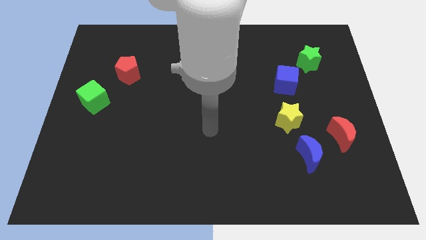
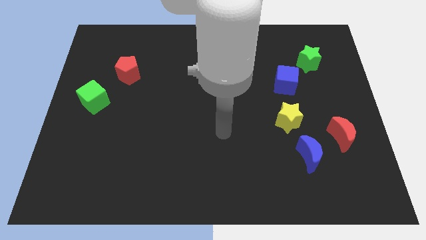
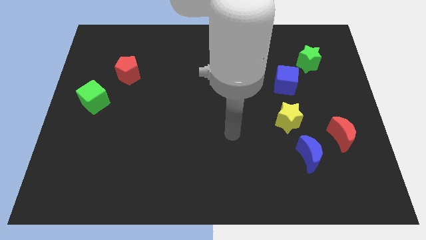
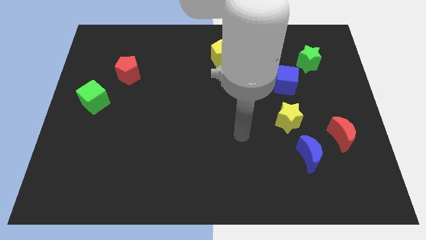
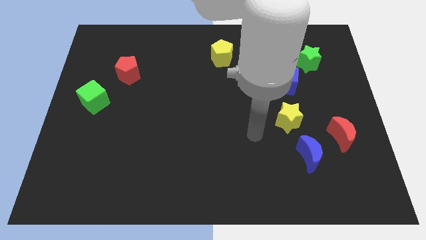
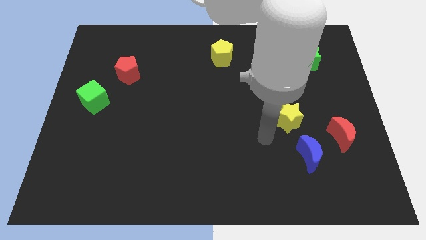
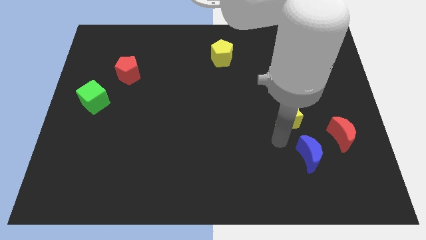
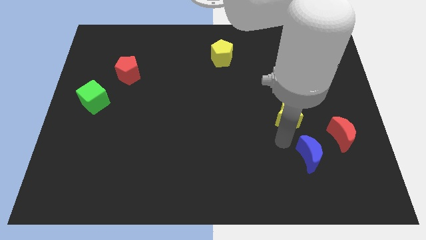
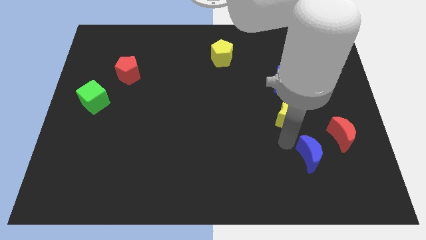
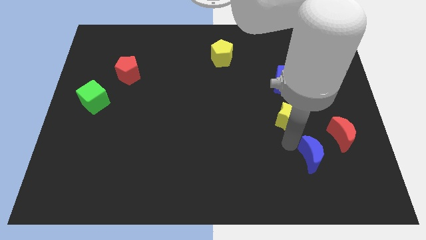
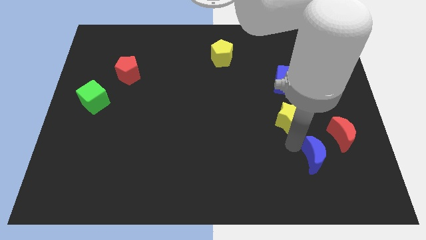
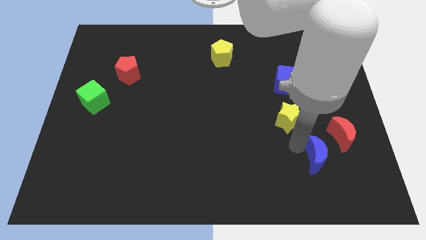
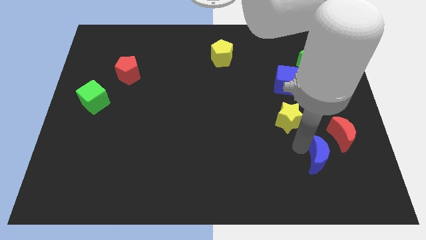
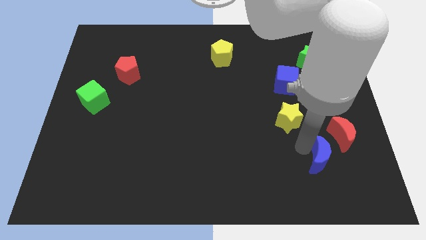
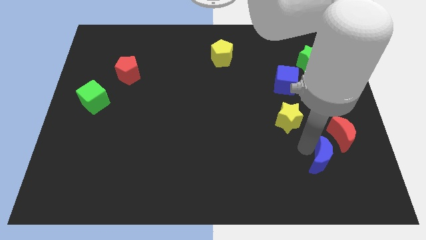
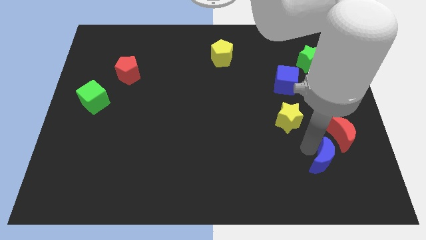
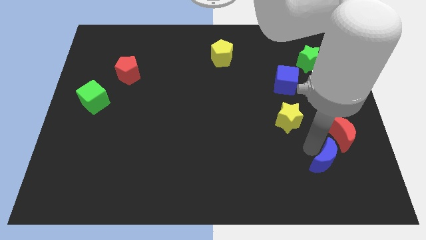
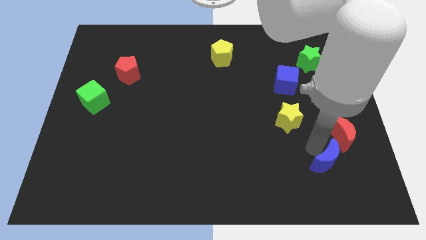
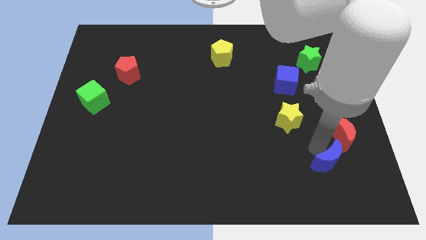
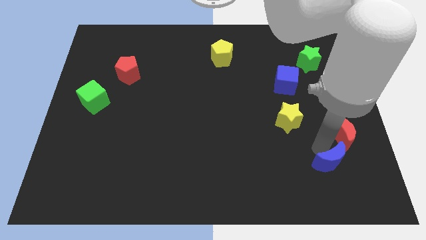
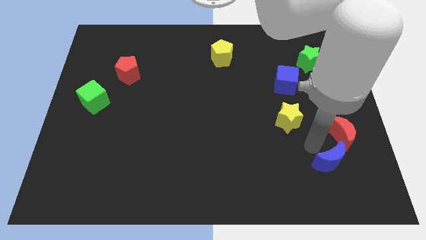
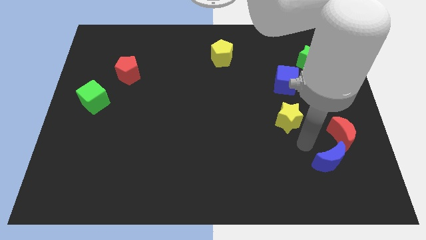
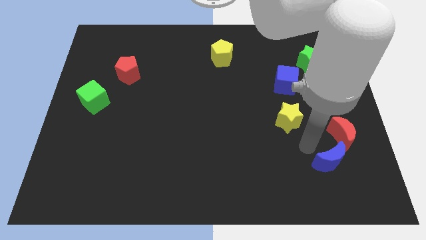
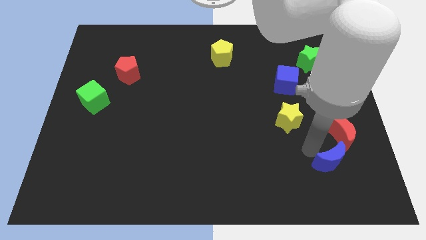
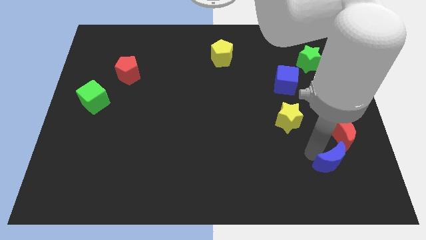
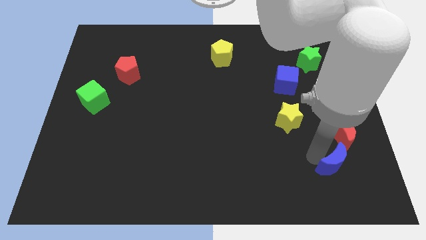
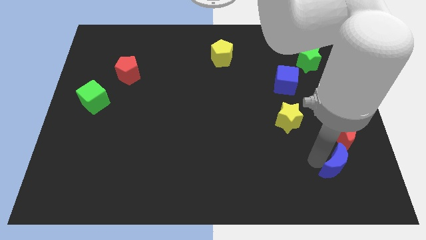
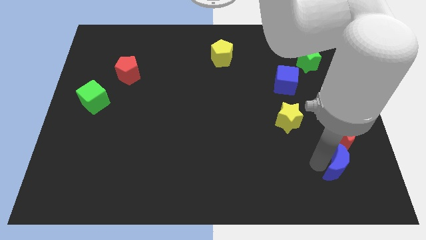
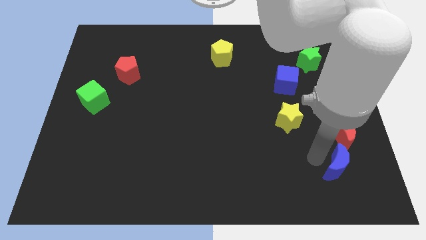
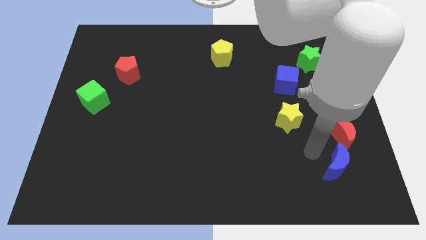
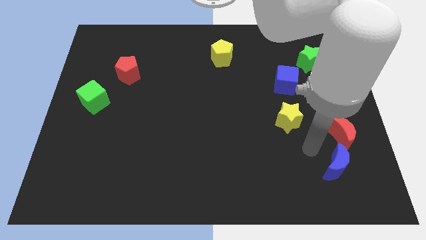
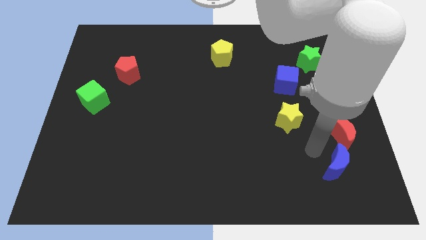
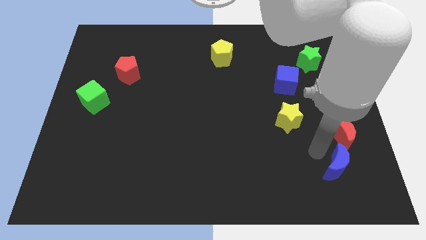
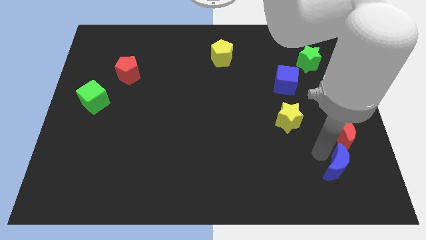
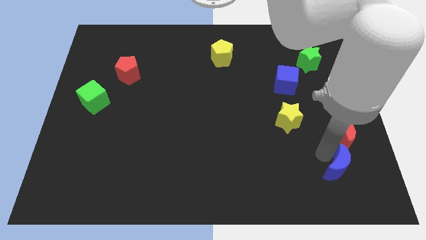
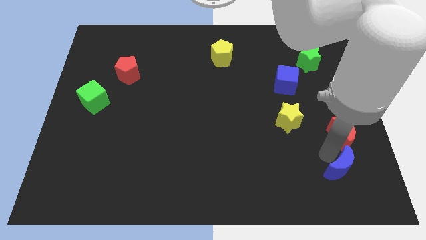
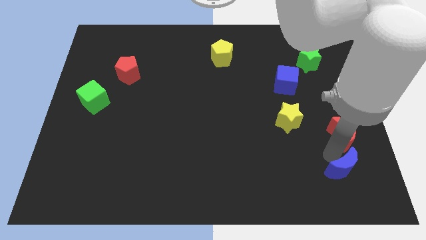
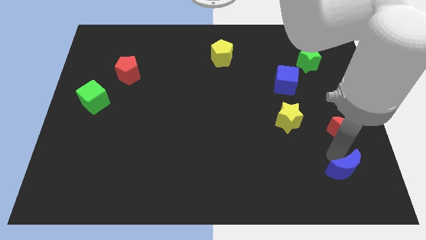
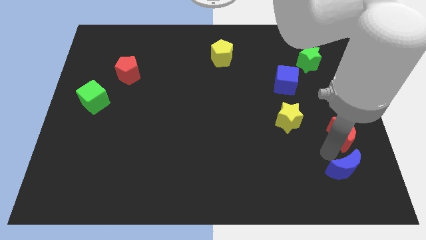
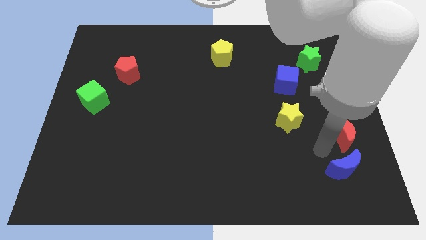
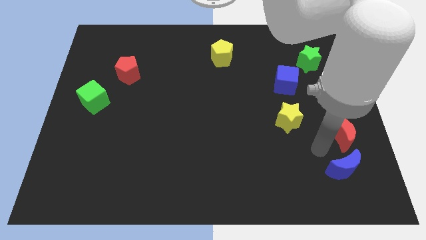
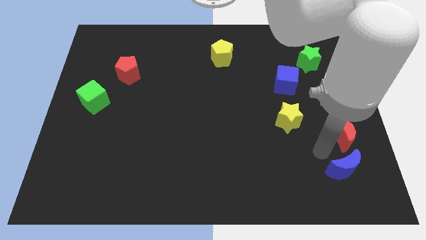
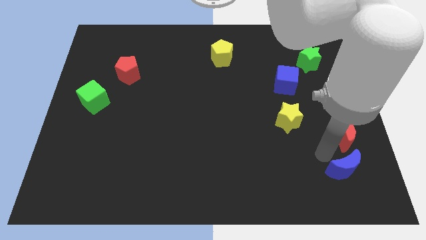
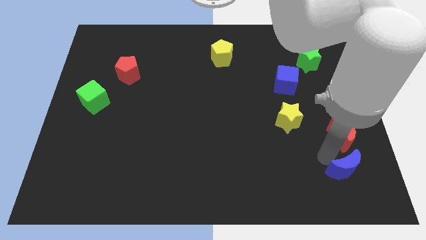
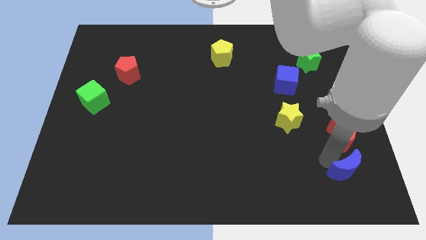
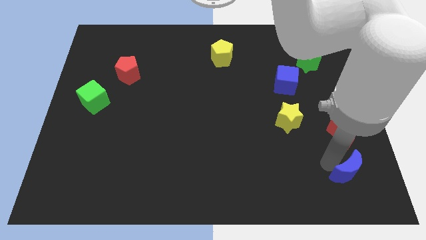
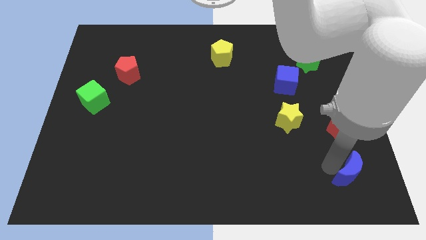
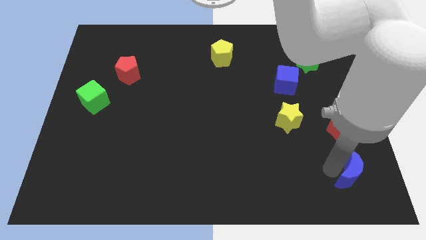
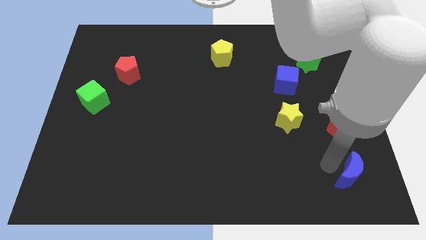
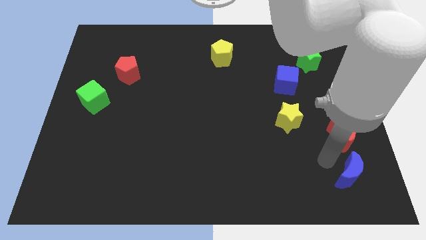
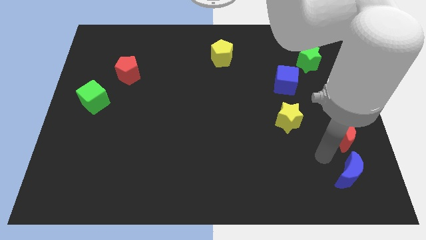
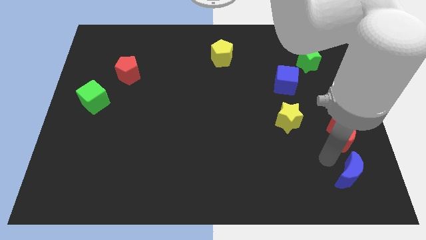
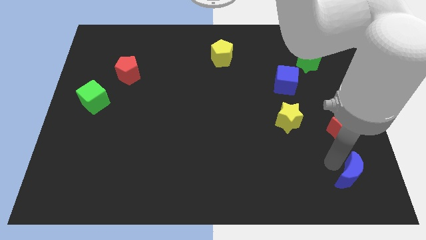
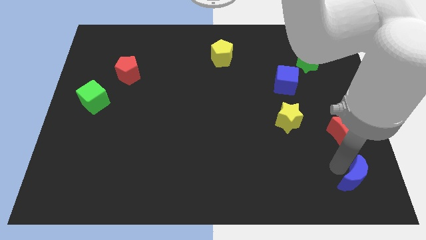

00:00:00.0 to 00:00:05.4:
slide the blue moon to the bottom right
